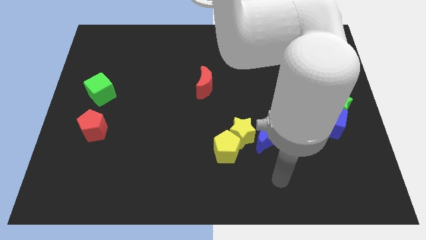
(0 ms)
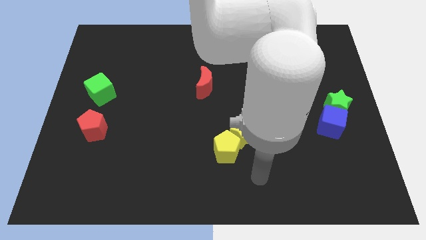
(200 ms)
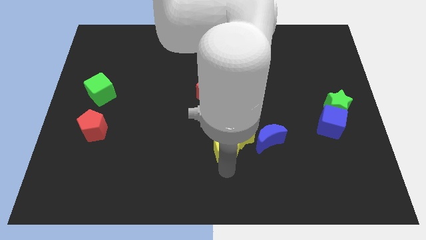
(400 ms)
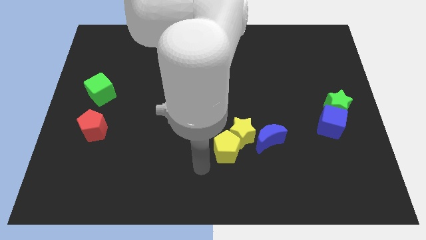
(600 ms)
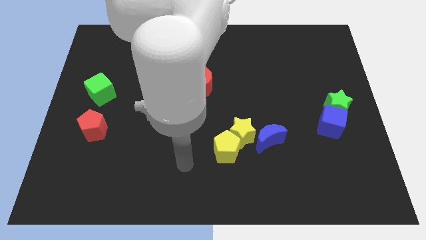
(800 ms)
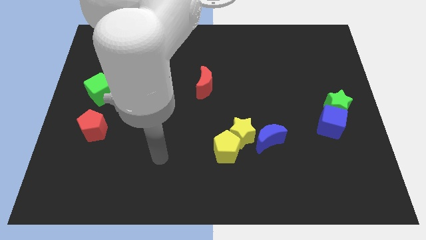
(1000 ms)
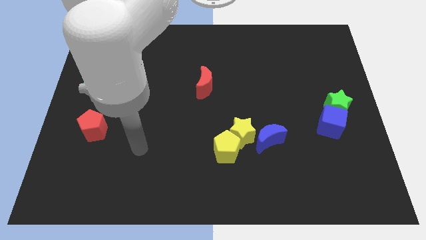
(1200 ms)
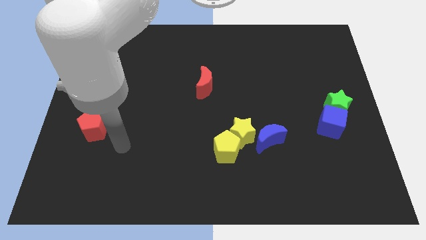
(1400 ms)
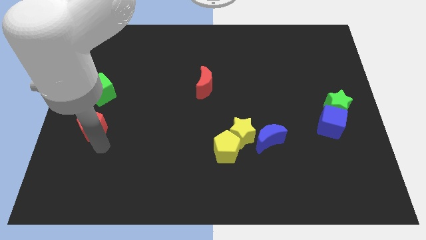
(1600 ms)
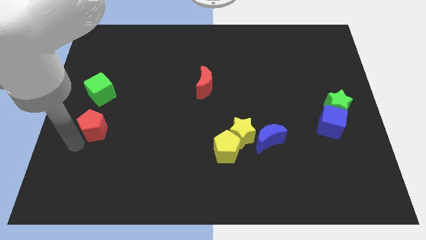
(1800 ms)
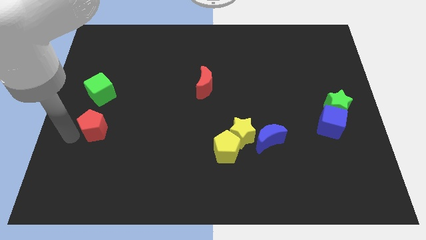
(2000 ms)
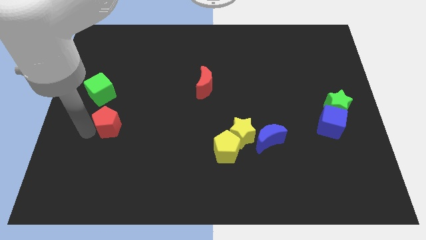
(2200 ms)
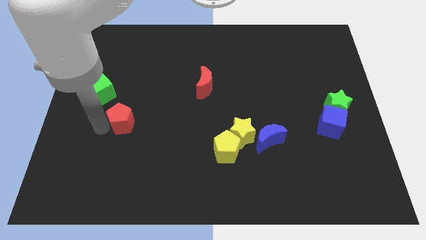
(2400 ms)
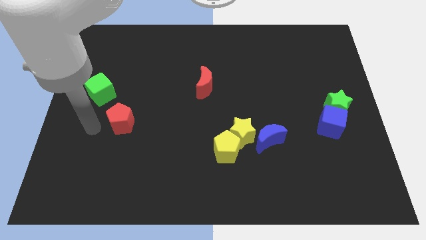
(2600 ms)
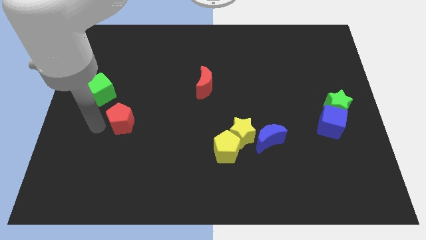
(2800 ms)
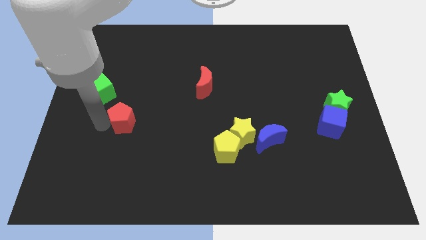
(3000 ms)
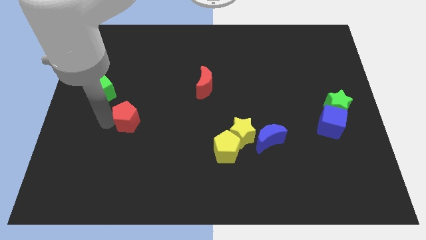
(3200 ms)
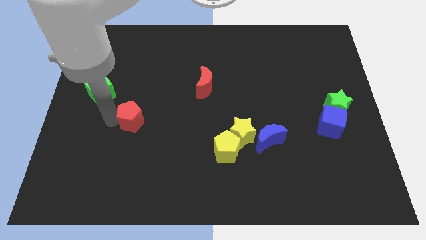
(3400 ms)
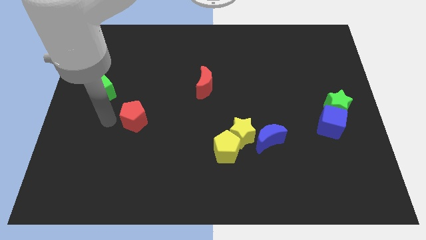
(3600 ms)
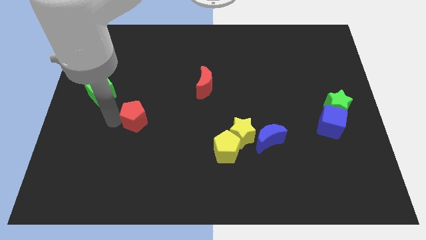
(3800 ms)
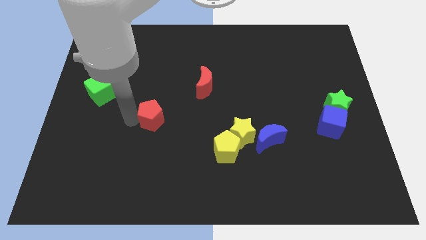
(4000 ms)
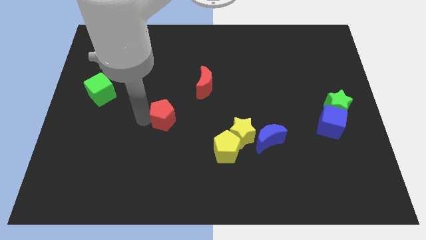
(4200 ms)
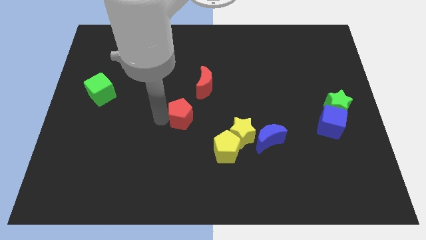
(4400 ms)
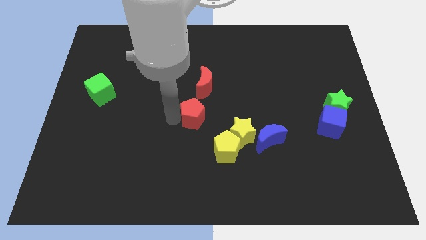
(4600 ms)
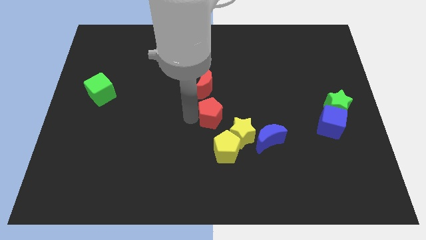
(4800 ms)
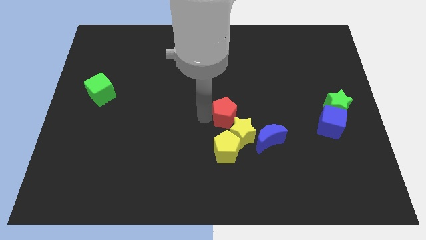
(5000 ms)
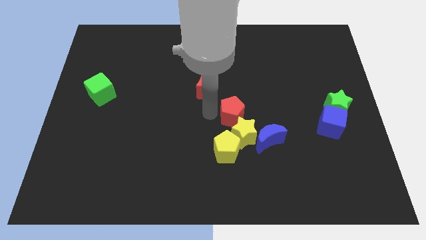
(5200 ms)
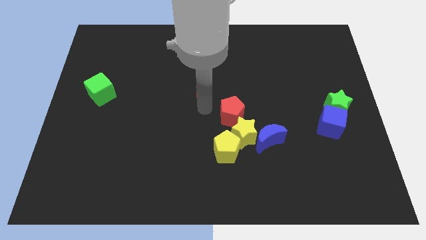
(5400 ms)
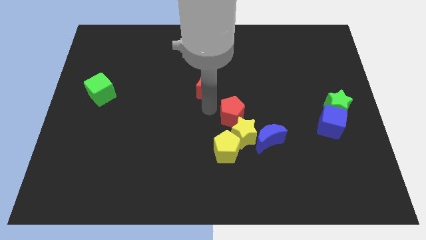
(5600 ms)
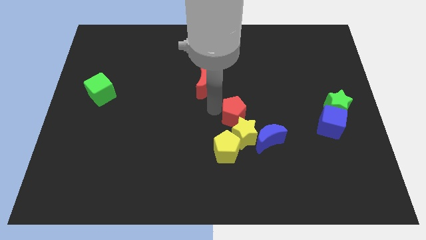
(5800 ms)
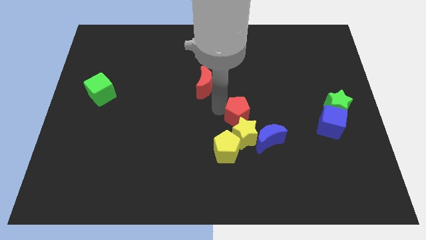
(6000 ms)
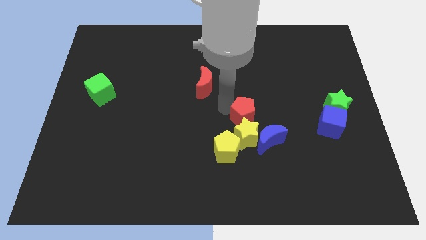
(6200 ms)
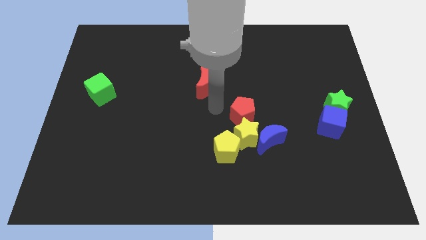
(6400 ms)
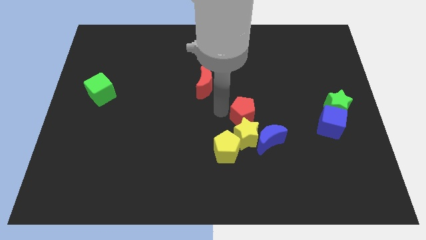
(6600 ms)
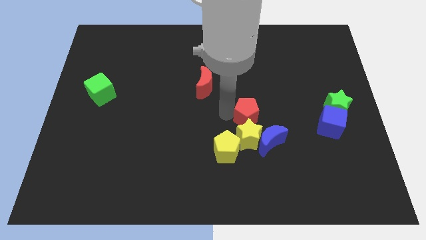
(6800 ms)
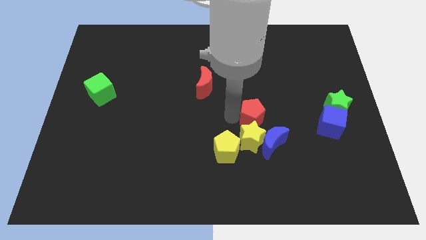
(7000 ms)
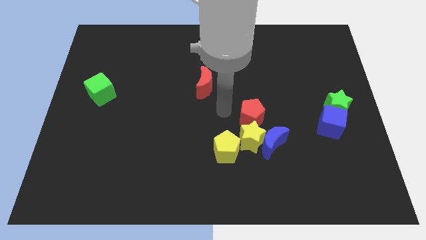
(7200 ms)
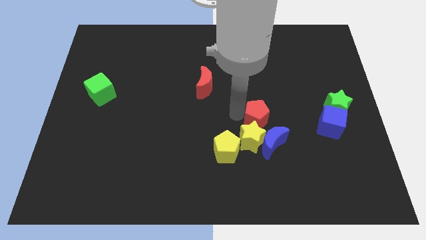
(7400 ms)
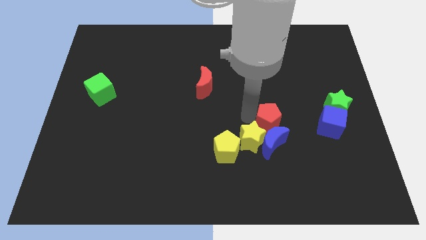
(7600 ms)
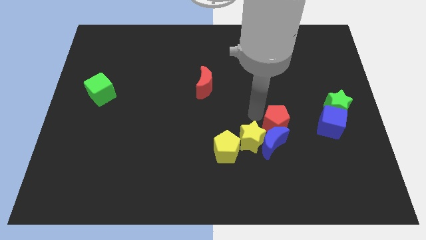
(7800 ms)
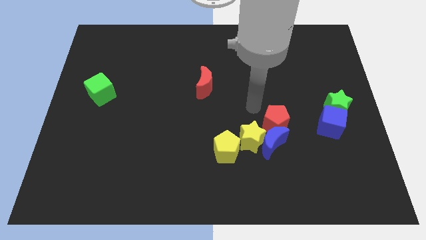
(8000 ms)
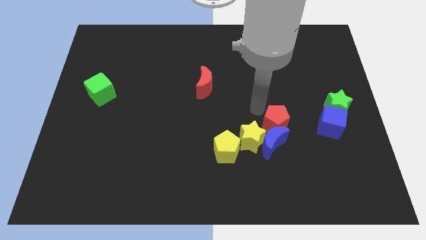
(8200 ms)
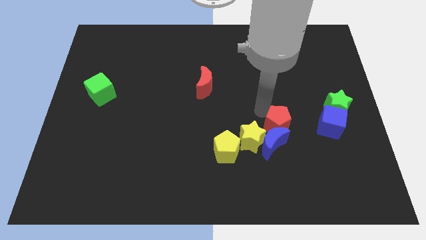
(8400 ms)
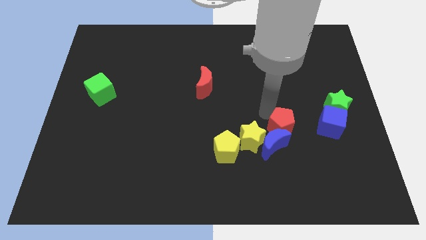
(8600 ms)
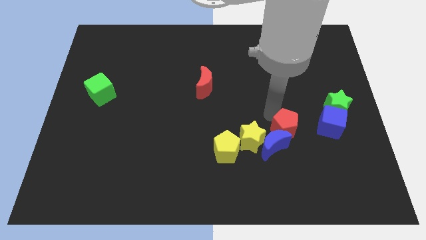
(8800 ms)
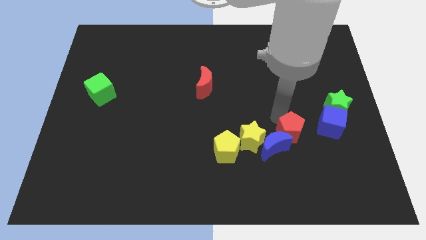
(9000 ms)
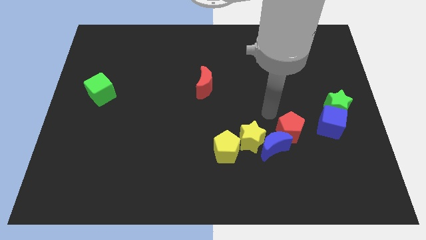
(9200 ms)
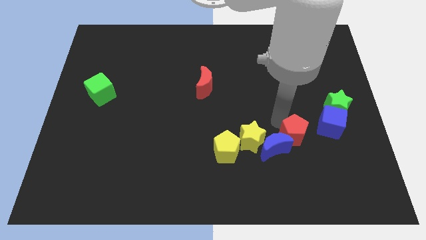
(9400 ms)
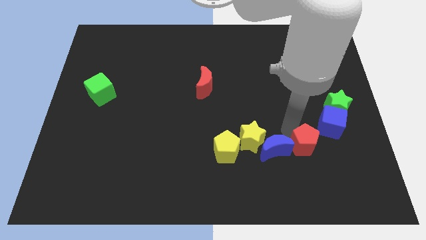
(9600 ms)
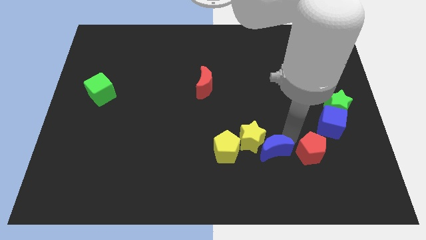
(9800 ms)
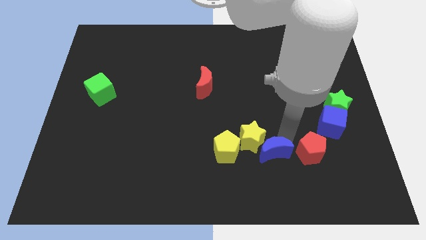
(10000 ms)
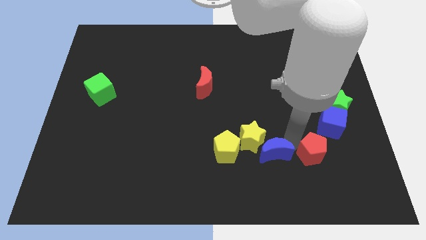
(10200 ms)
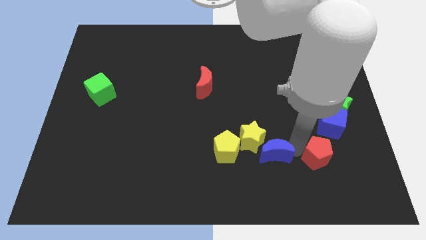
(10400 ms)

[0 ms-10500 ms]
push the red pentagon to the bottom side of the blue cube

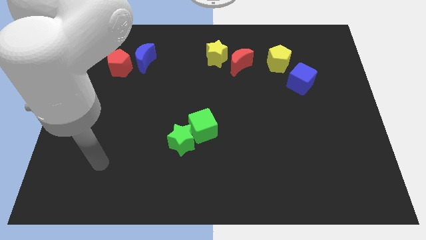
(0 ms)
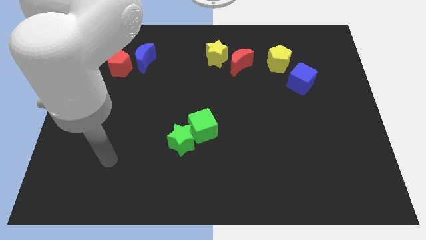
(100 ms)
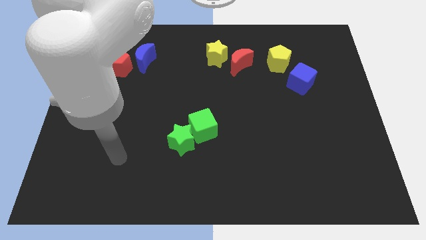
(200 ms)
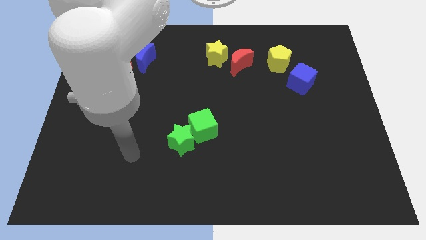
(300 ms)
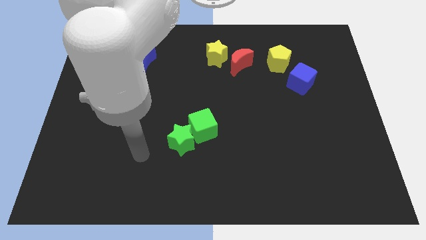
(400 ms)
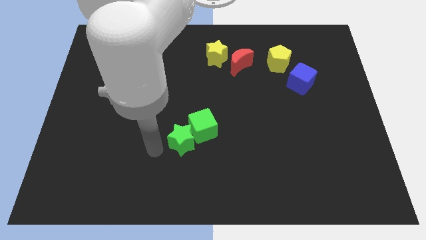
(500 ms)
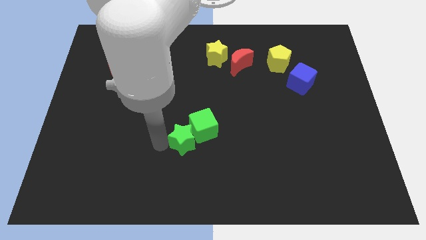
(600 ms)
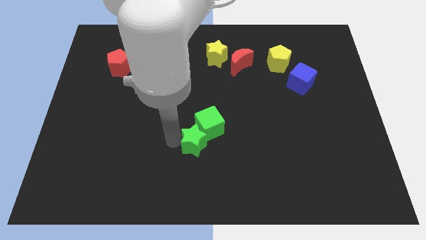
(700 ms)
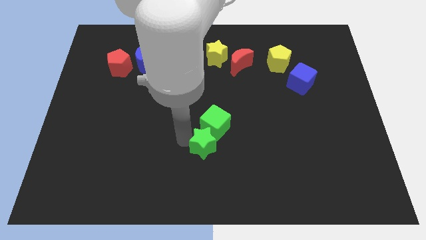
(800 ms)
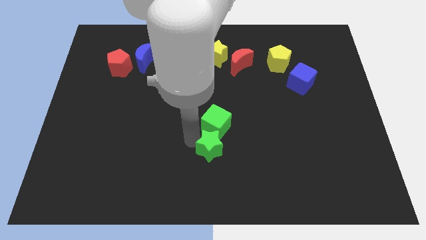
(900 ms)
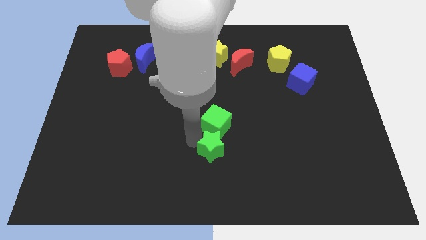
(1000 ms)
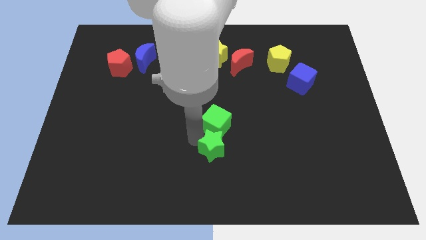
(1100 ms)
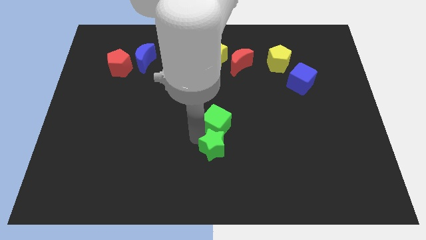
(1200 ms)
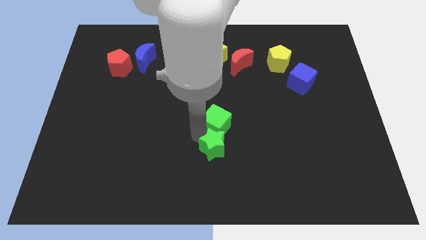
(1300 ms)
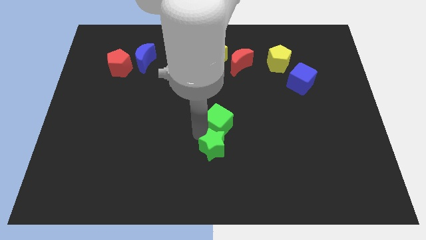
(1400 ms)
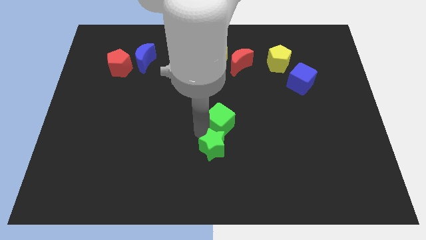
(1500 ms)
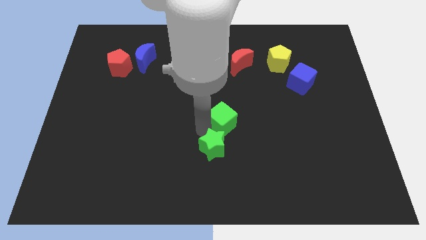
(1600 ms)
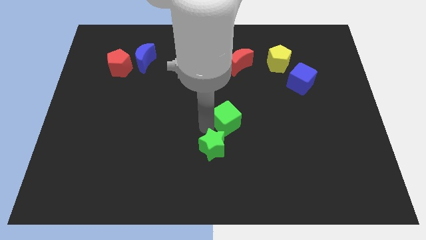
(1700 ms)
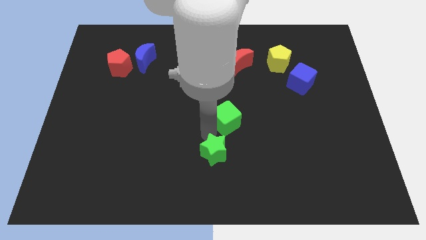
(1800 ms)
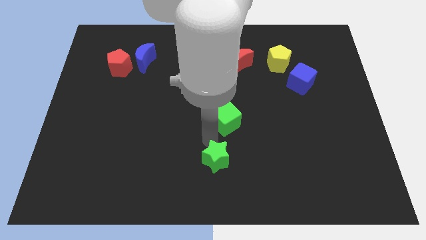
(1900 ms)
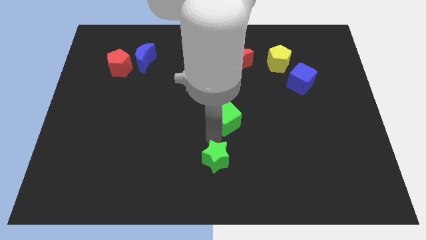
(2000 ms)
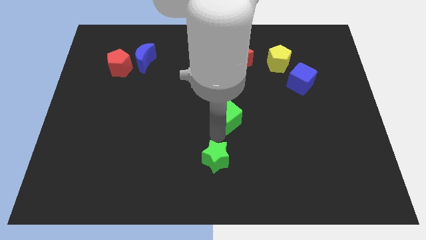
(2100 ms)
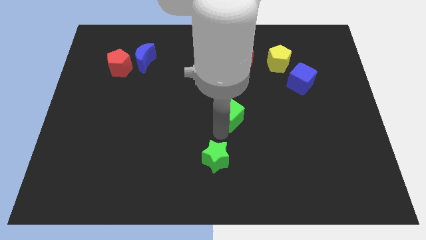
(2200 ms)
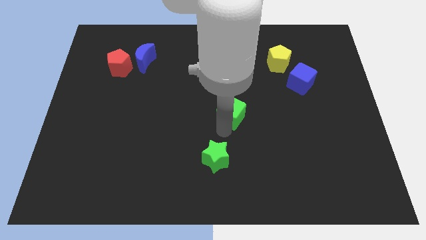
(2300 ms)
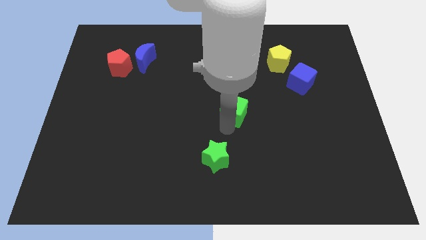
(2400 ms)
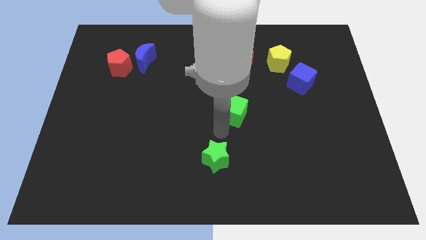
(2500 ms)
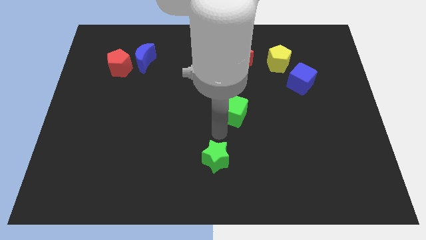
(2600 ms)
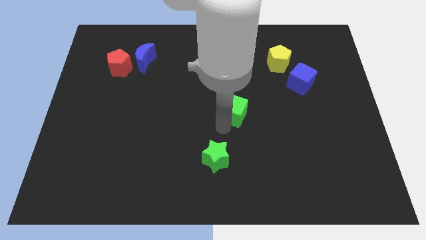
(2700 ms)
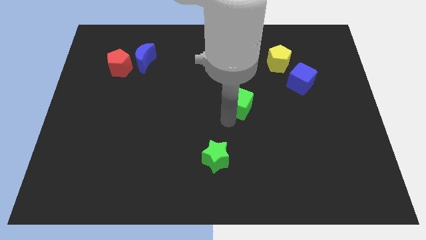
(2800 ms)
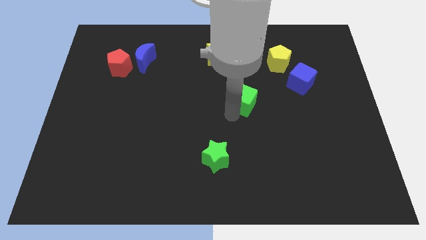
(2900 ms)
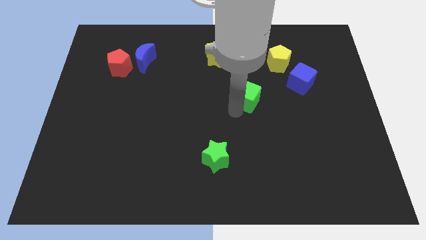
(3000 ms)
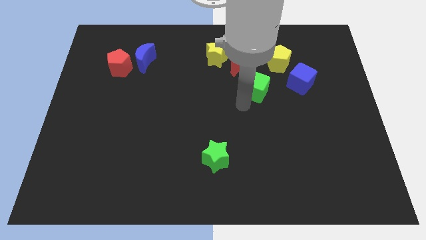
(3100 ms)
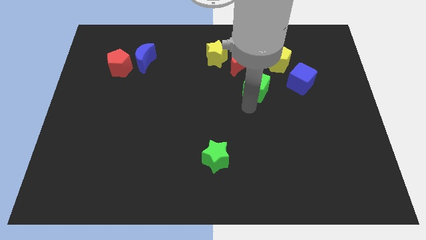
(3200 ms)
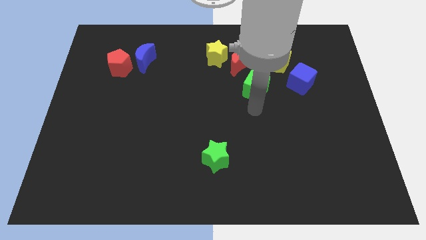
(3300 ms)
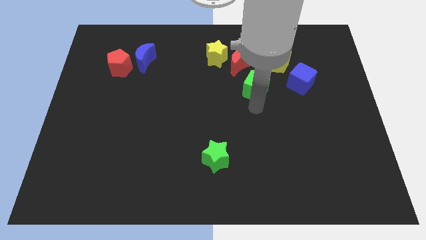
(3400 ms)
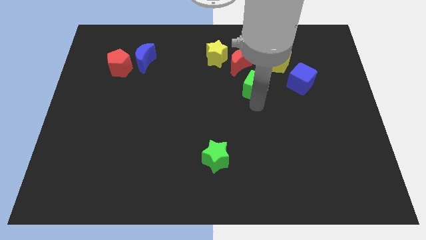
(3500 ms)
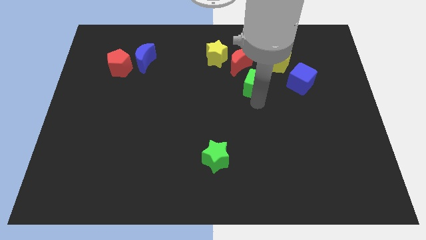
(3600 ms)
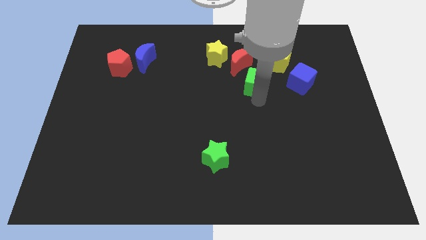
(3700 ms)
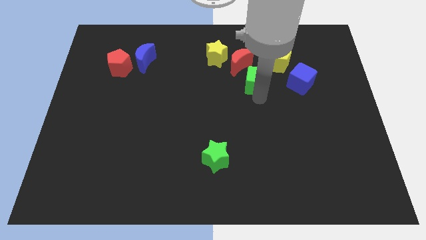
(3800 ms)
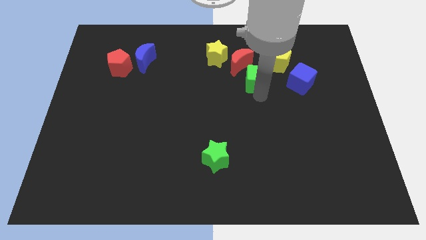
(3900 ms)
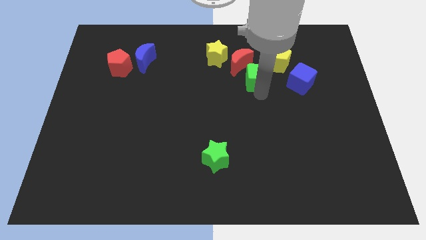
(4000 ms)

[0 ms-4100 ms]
put the green cube to the bottom right of the yellow star
